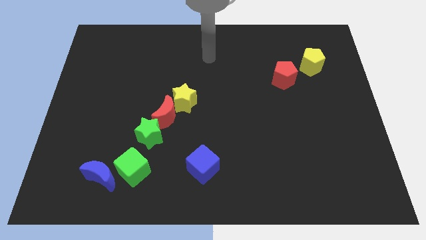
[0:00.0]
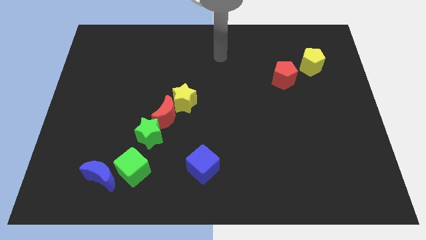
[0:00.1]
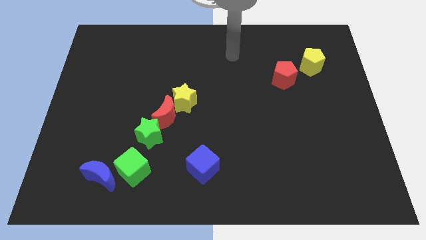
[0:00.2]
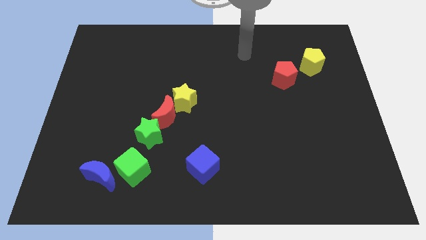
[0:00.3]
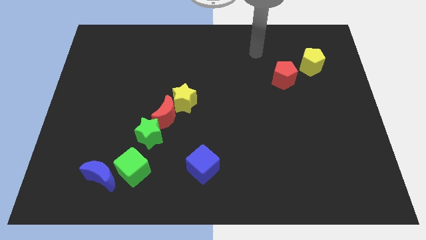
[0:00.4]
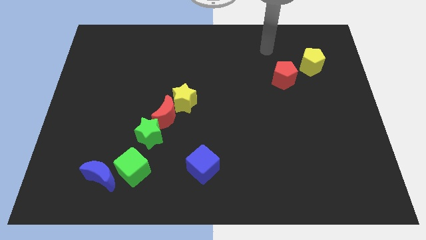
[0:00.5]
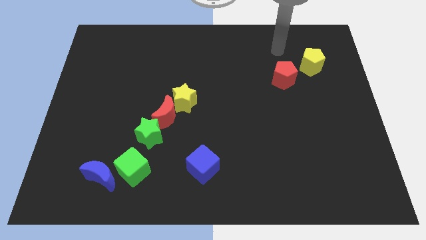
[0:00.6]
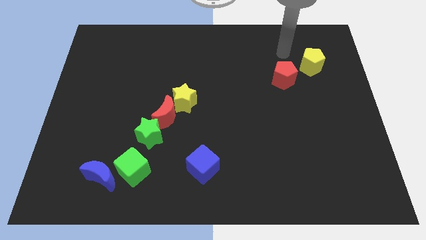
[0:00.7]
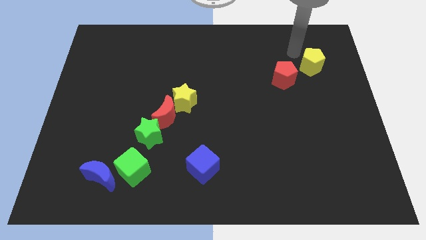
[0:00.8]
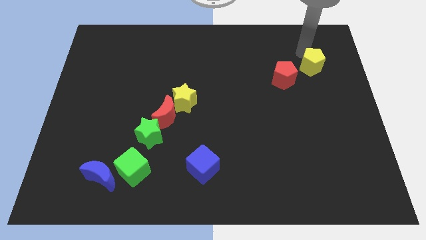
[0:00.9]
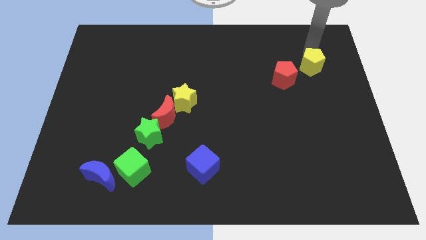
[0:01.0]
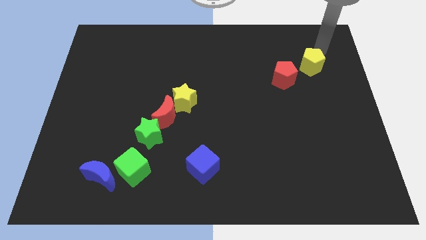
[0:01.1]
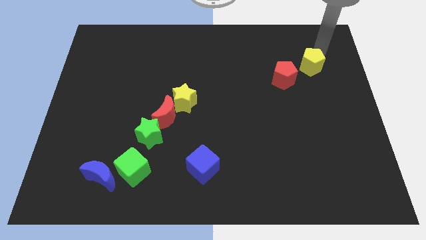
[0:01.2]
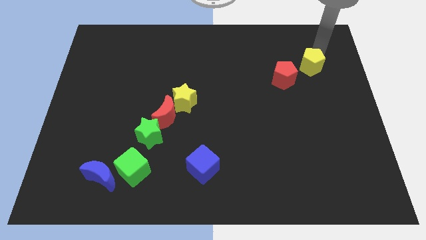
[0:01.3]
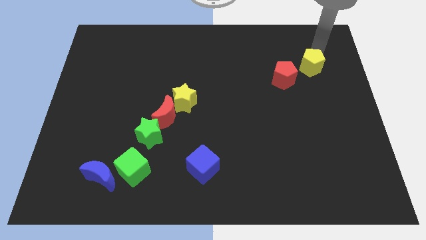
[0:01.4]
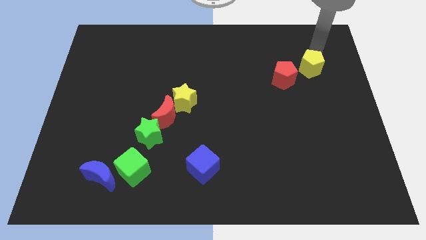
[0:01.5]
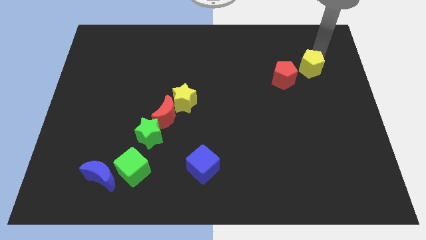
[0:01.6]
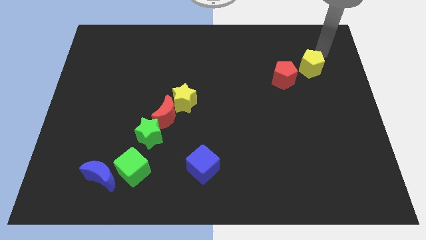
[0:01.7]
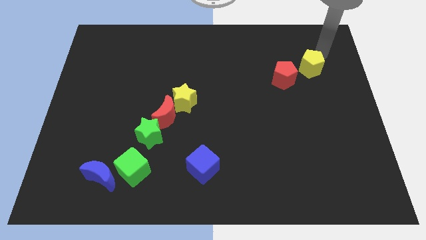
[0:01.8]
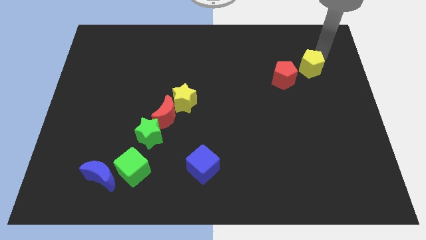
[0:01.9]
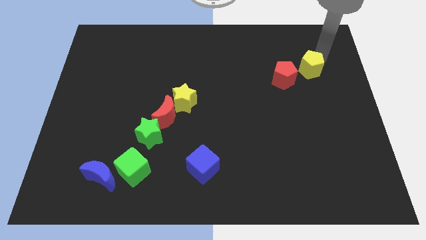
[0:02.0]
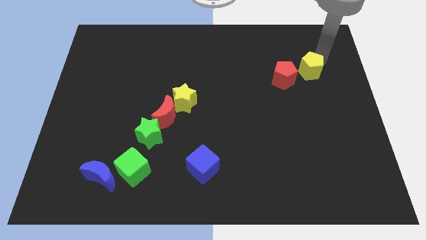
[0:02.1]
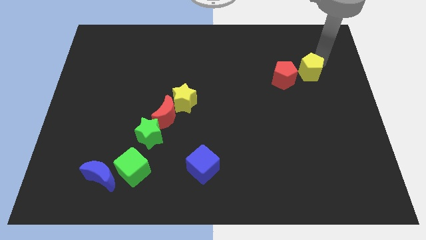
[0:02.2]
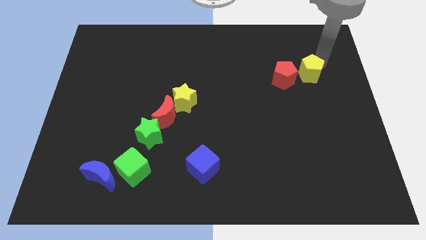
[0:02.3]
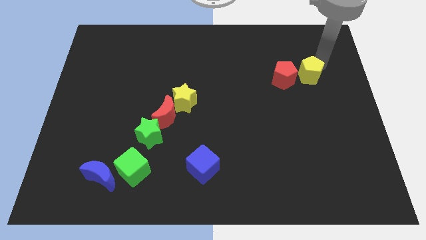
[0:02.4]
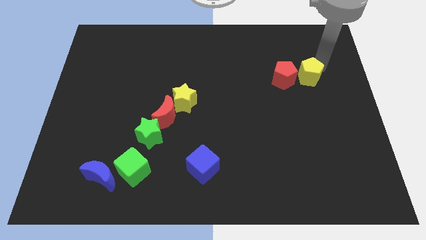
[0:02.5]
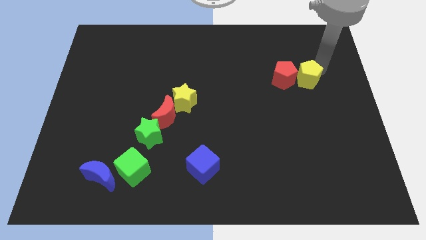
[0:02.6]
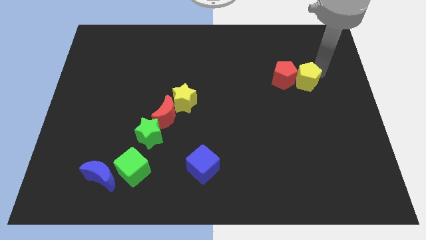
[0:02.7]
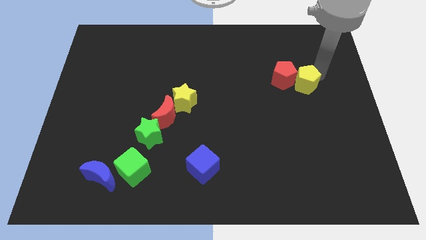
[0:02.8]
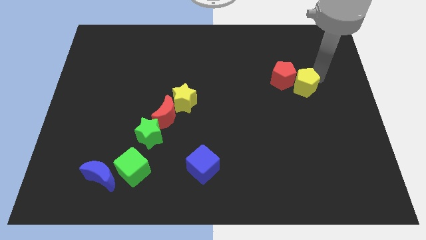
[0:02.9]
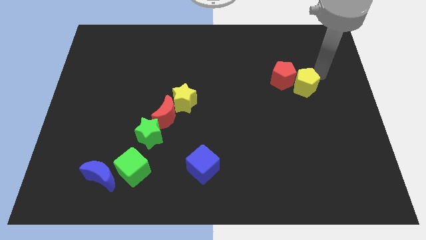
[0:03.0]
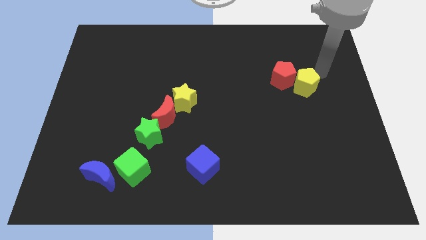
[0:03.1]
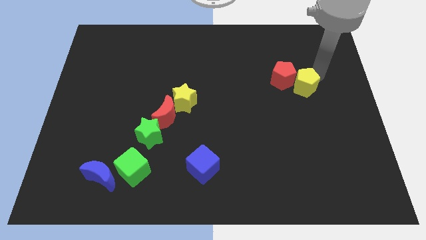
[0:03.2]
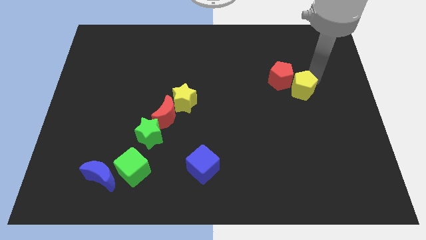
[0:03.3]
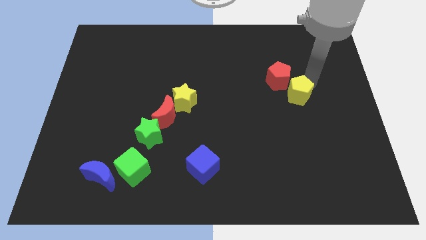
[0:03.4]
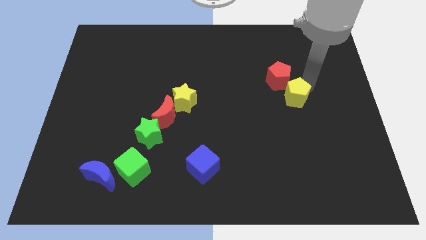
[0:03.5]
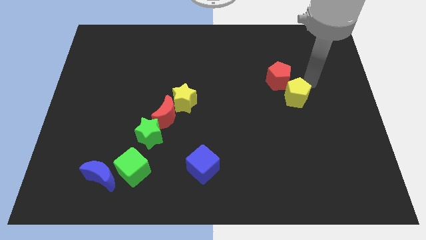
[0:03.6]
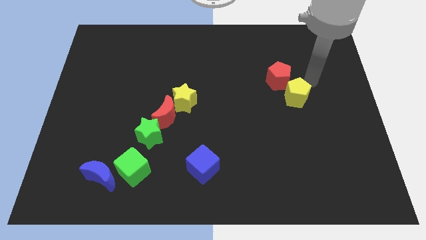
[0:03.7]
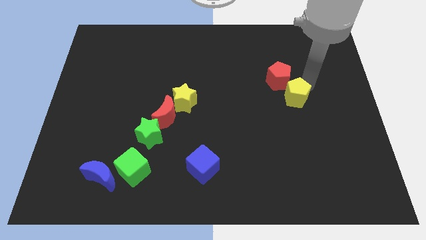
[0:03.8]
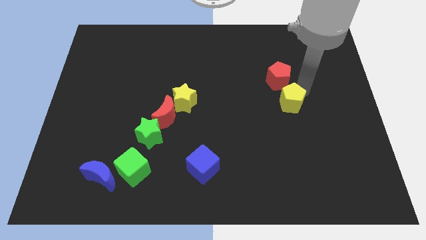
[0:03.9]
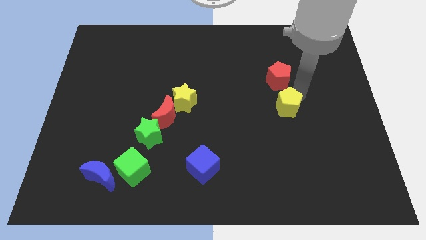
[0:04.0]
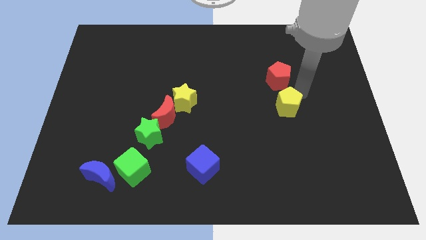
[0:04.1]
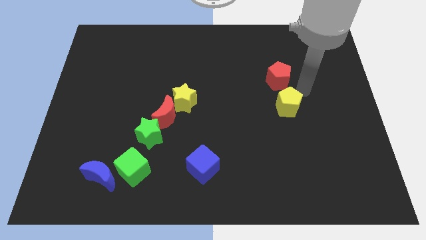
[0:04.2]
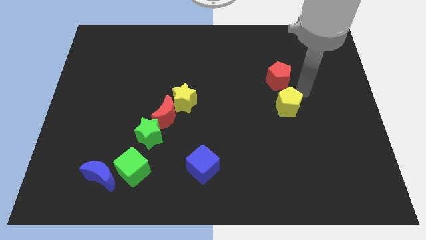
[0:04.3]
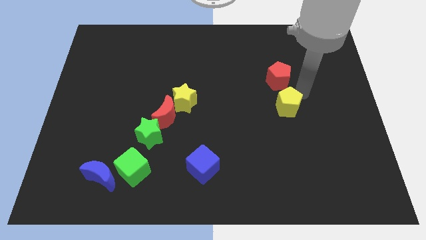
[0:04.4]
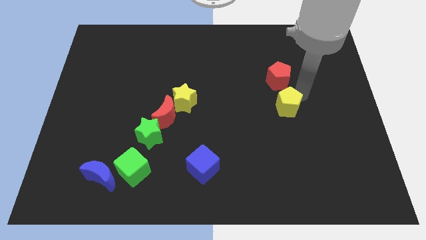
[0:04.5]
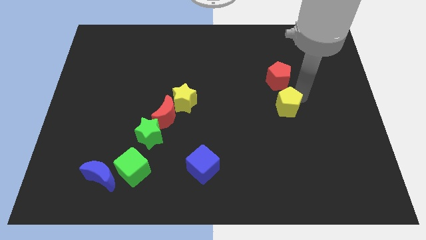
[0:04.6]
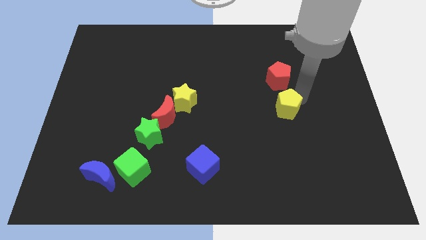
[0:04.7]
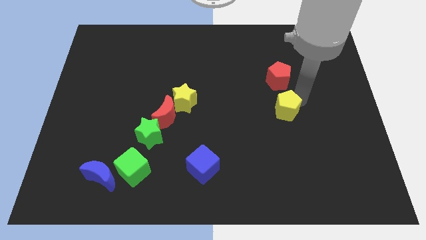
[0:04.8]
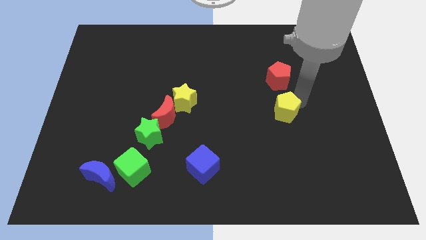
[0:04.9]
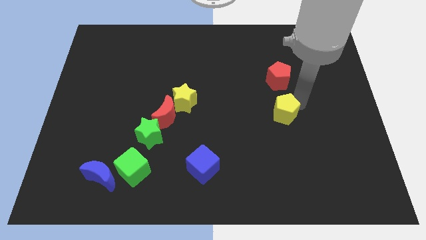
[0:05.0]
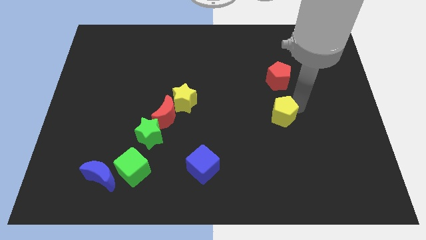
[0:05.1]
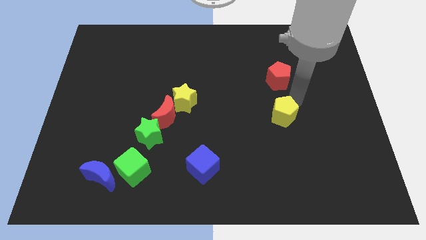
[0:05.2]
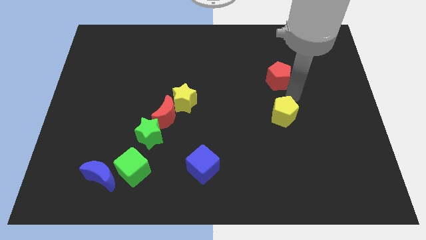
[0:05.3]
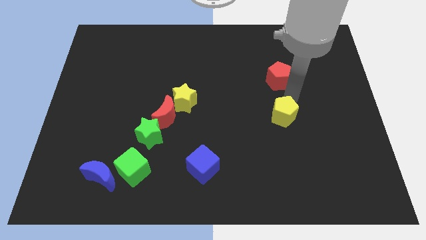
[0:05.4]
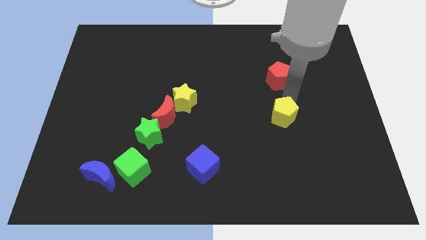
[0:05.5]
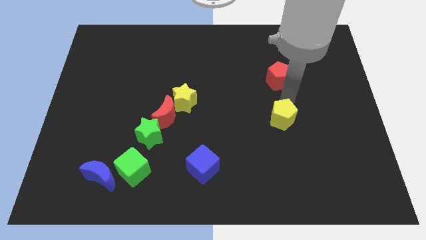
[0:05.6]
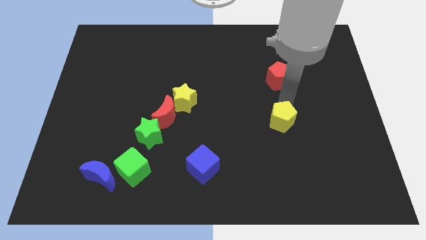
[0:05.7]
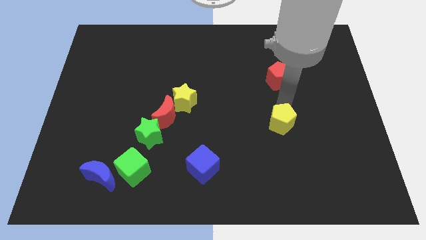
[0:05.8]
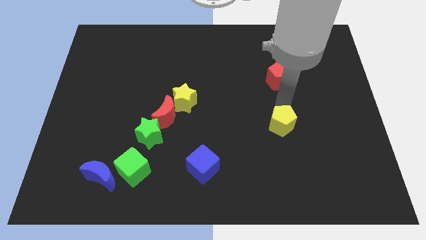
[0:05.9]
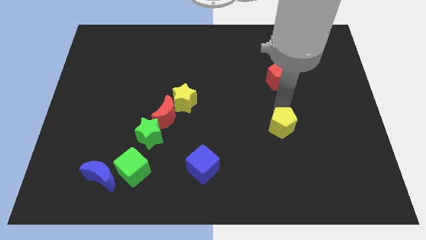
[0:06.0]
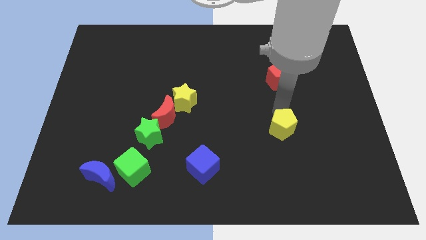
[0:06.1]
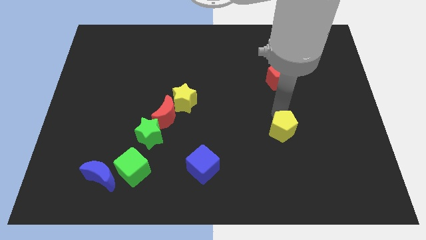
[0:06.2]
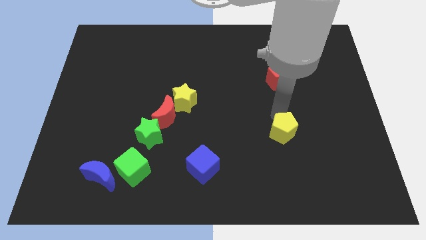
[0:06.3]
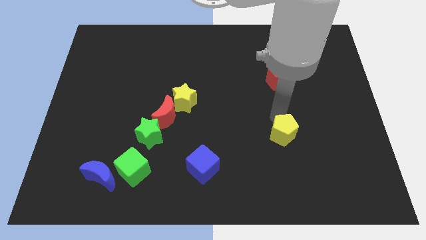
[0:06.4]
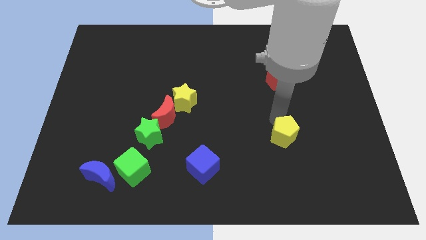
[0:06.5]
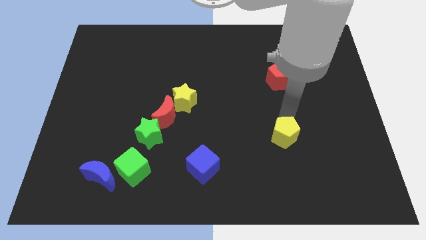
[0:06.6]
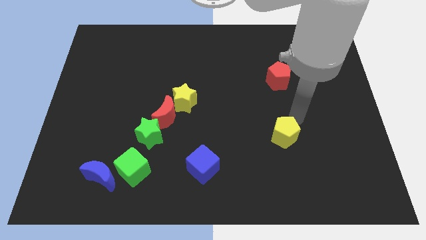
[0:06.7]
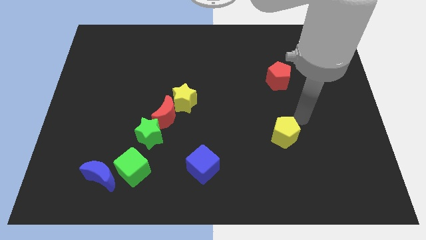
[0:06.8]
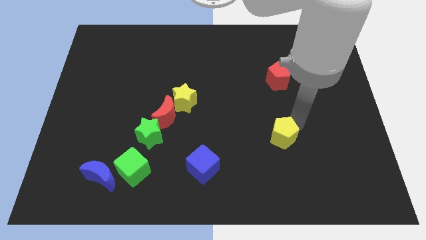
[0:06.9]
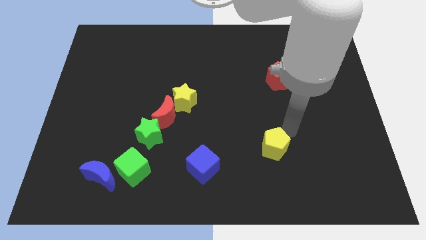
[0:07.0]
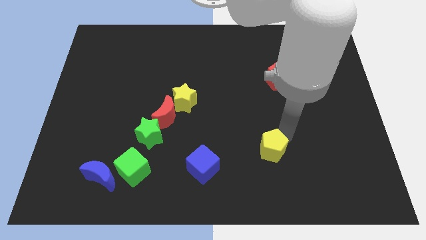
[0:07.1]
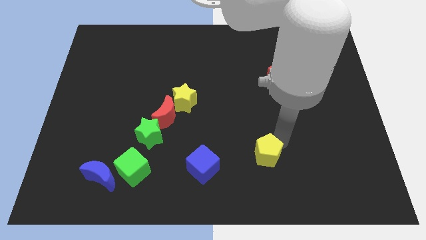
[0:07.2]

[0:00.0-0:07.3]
slide the yellow pentagon just right of the blue cube
